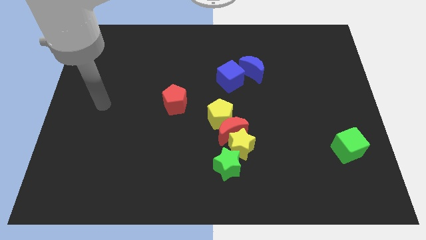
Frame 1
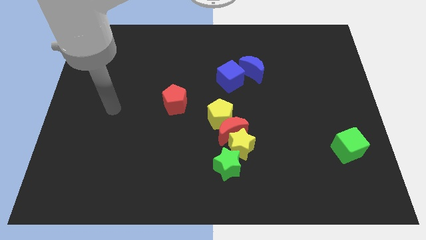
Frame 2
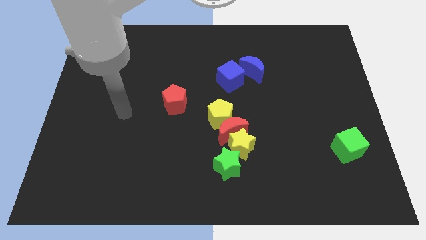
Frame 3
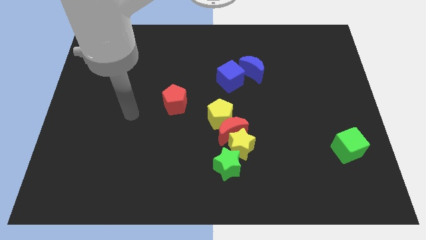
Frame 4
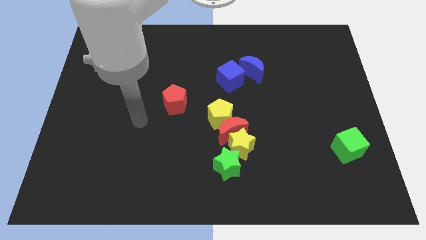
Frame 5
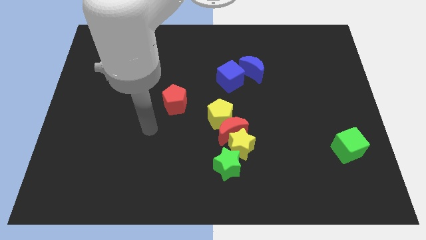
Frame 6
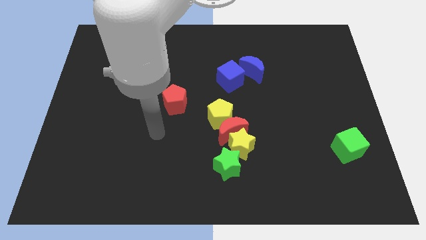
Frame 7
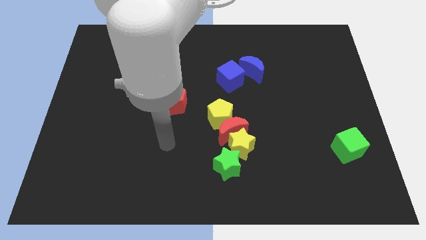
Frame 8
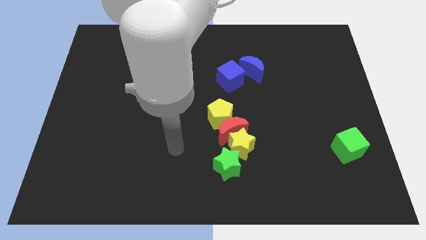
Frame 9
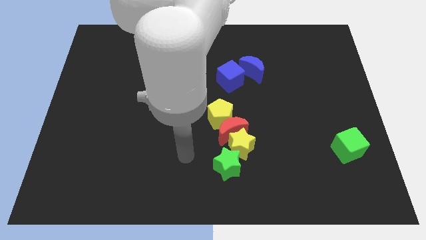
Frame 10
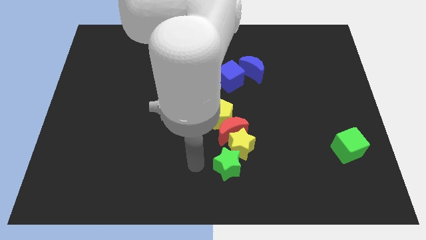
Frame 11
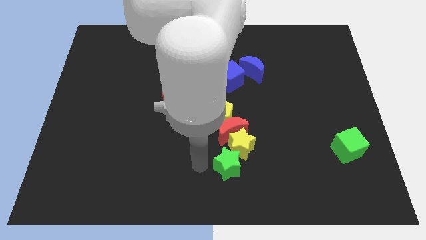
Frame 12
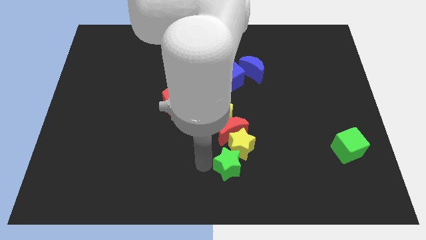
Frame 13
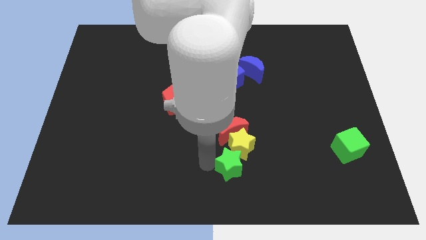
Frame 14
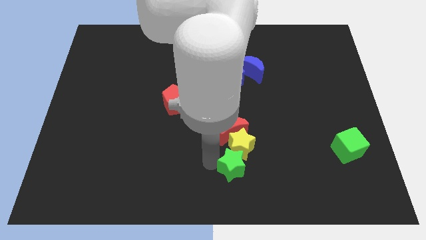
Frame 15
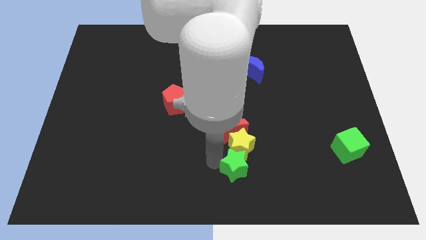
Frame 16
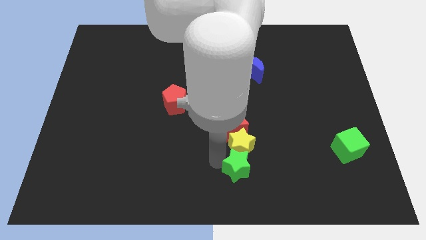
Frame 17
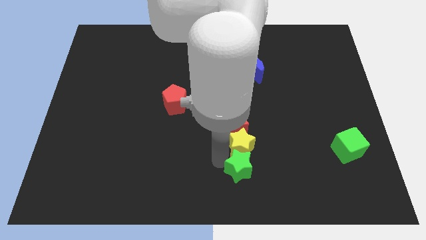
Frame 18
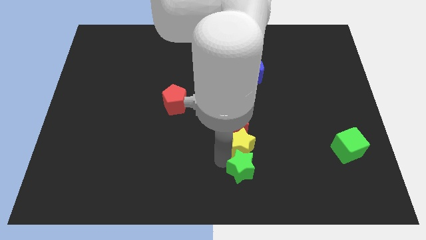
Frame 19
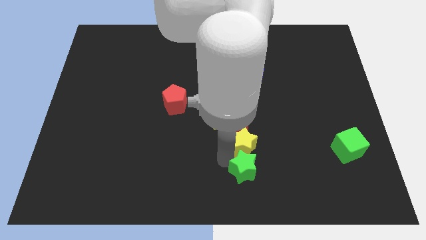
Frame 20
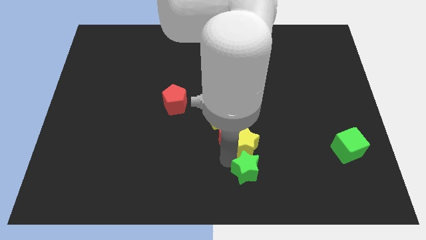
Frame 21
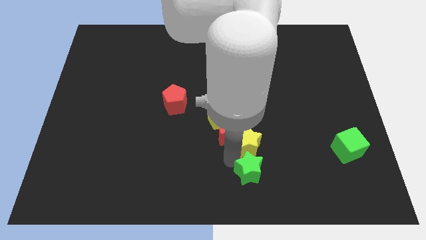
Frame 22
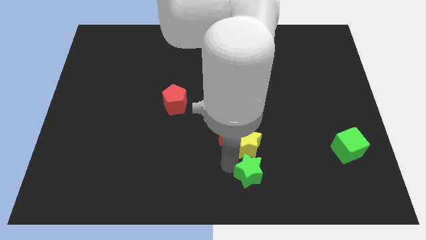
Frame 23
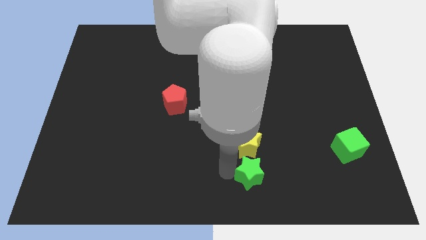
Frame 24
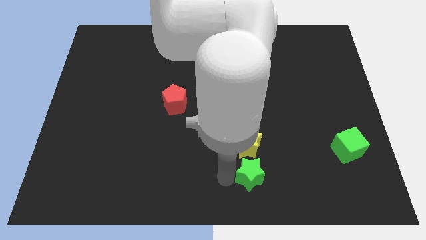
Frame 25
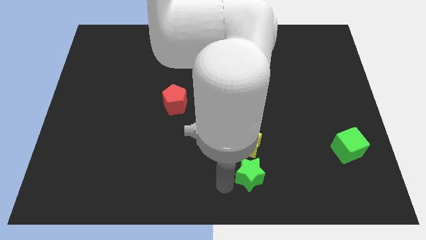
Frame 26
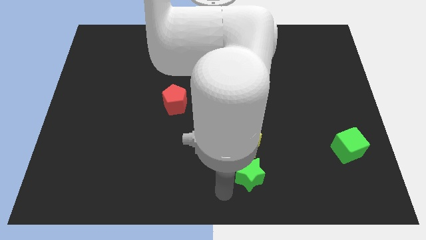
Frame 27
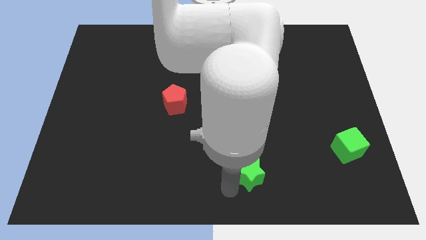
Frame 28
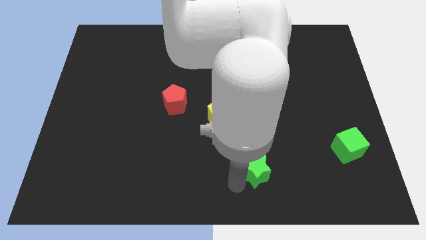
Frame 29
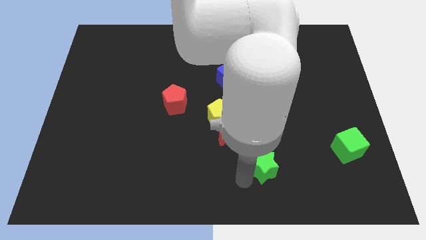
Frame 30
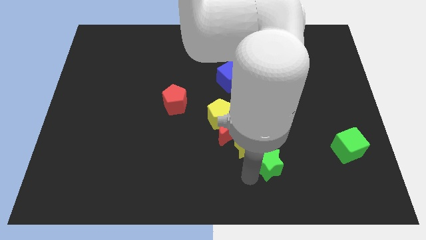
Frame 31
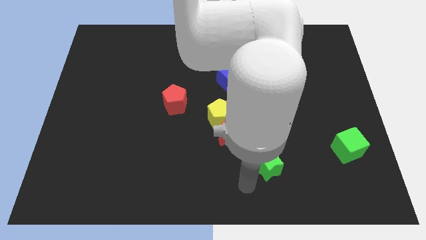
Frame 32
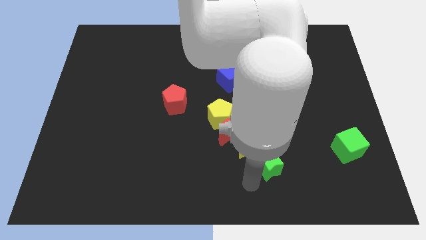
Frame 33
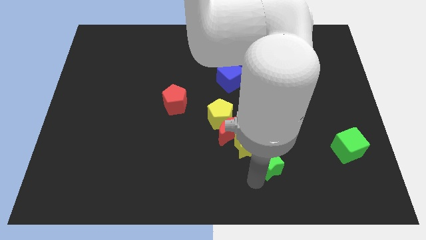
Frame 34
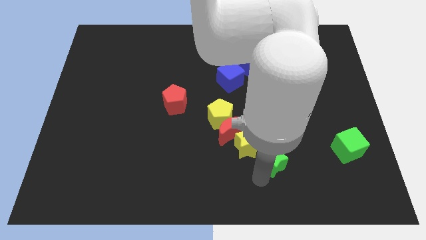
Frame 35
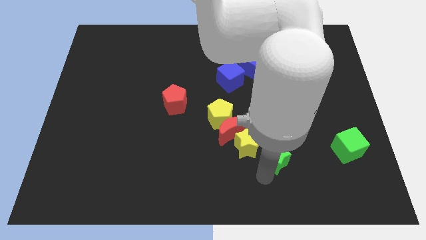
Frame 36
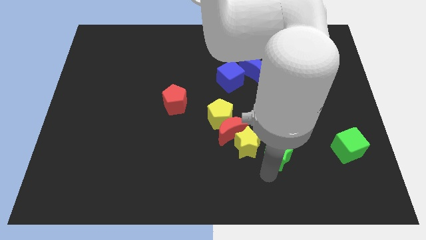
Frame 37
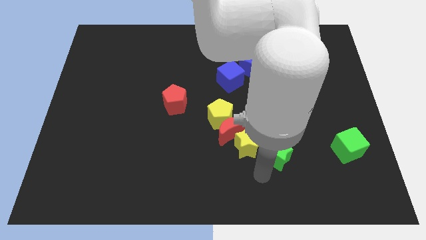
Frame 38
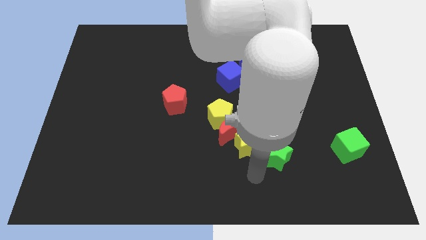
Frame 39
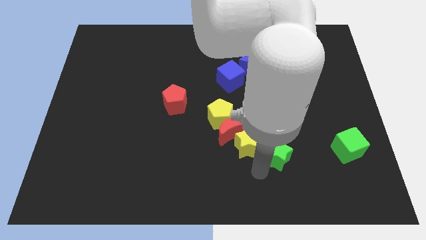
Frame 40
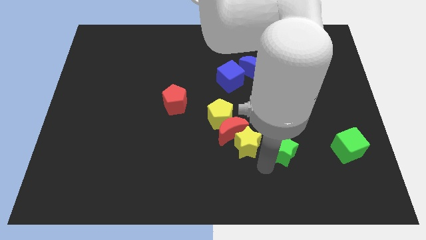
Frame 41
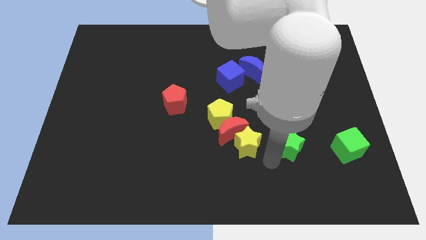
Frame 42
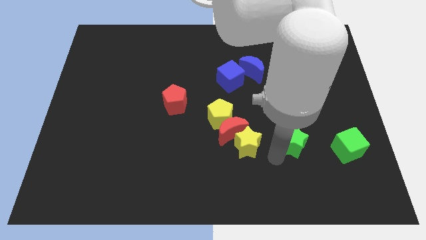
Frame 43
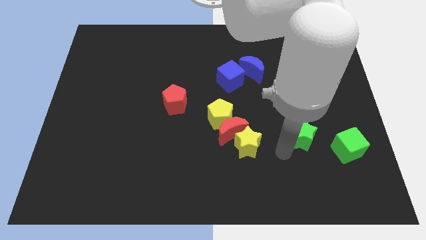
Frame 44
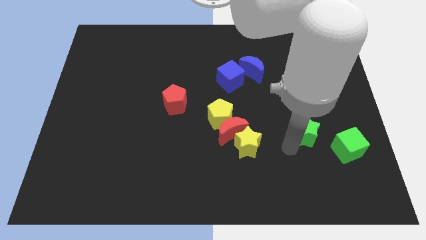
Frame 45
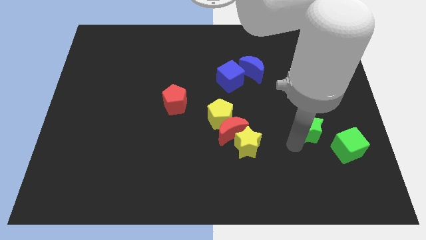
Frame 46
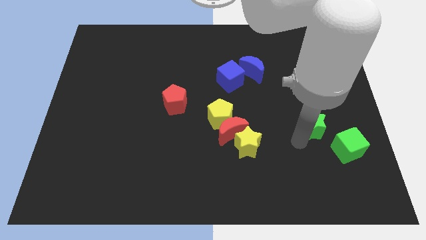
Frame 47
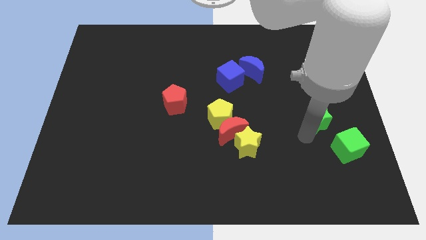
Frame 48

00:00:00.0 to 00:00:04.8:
push the green star upwards and then to the right

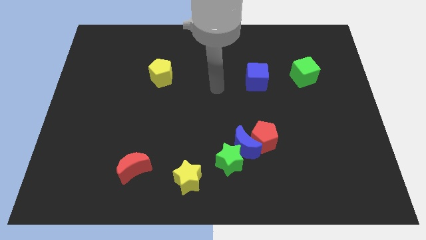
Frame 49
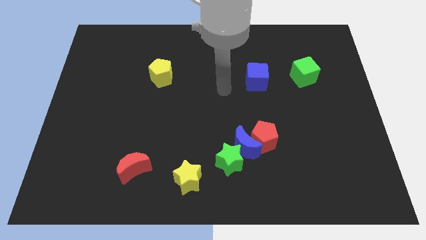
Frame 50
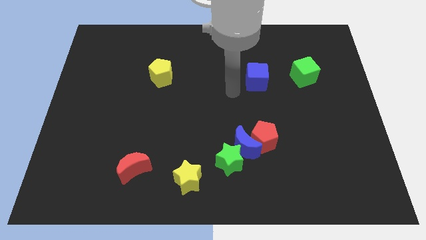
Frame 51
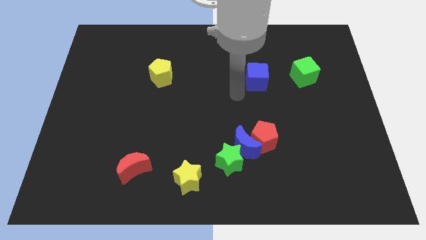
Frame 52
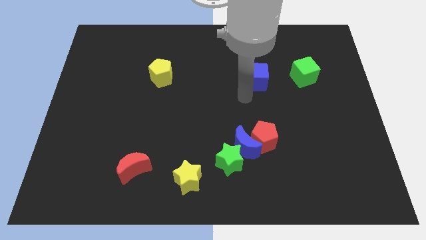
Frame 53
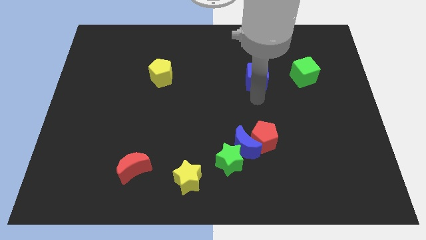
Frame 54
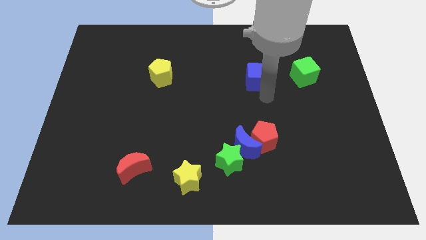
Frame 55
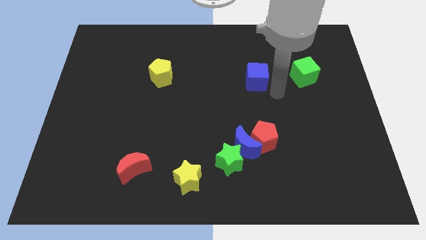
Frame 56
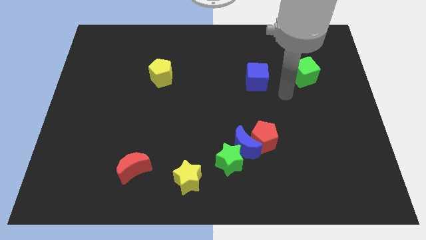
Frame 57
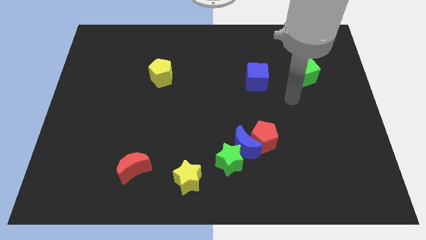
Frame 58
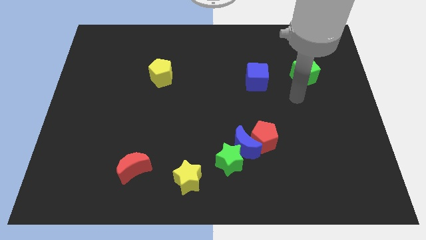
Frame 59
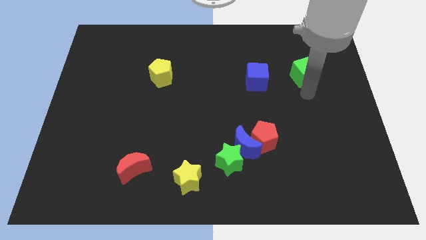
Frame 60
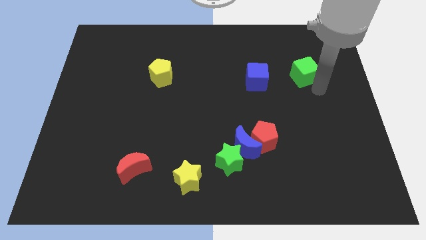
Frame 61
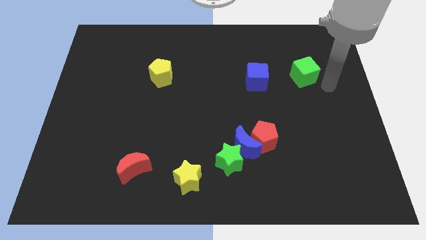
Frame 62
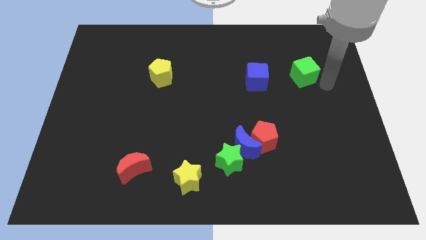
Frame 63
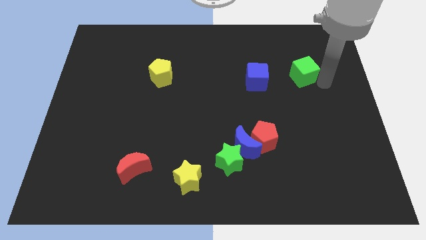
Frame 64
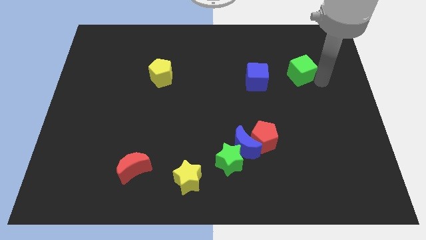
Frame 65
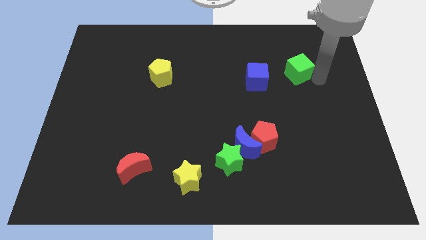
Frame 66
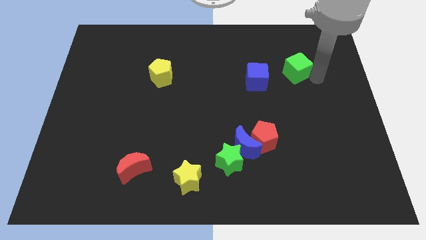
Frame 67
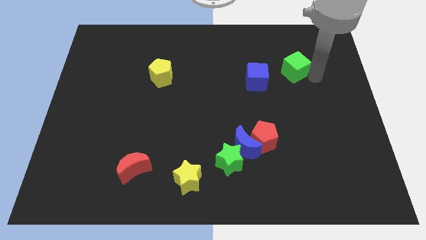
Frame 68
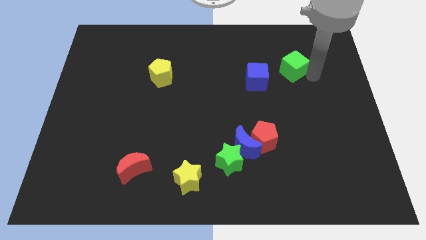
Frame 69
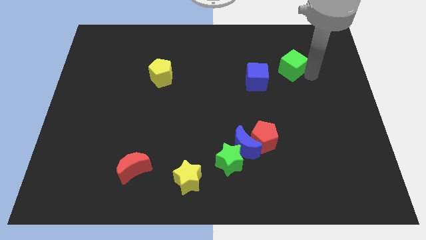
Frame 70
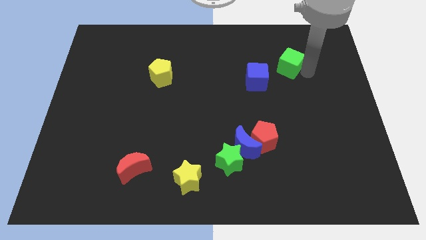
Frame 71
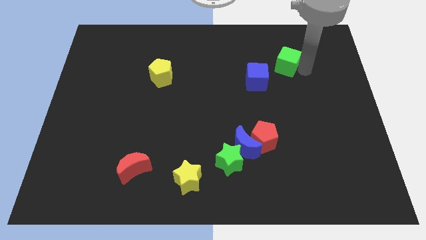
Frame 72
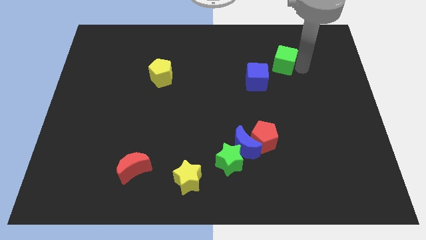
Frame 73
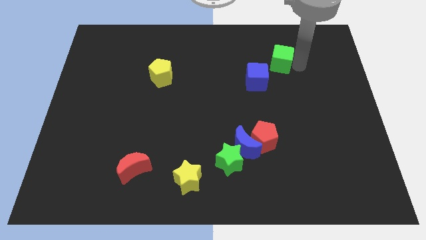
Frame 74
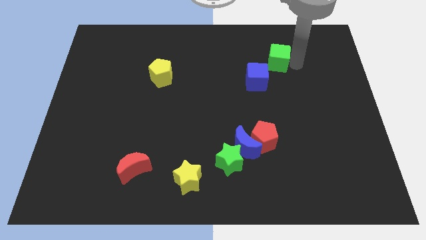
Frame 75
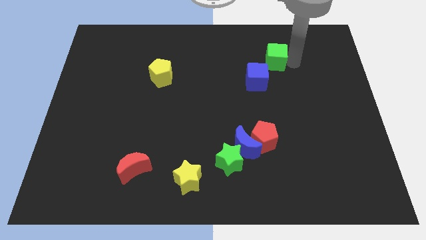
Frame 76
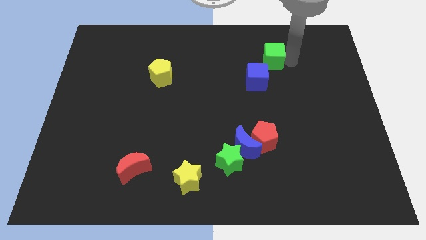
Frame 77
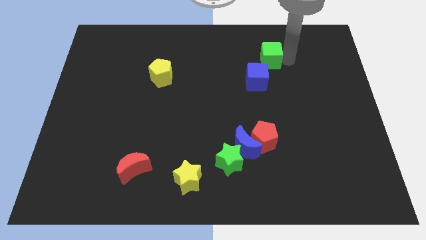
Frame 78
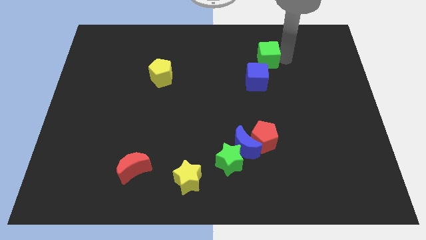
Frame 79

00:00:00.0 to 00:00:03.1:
push the green cube left a bit

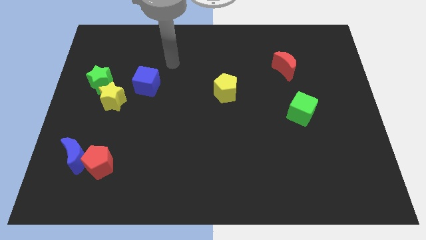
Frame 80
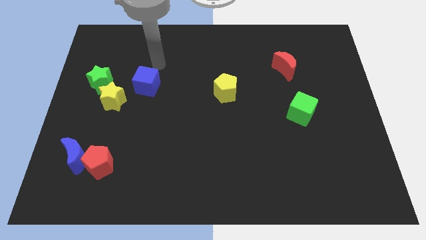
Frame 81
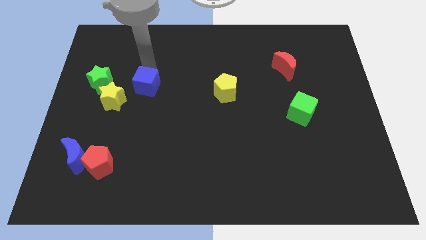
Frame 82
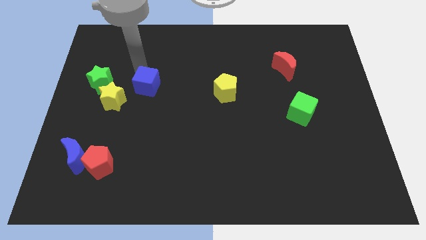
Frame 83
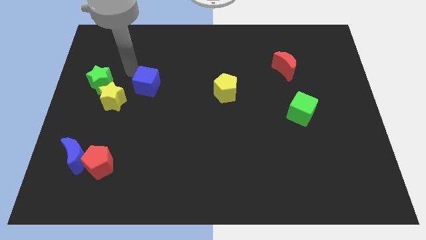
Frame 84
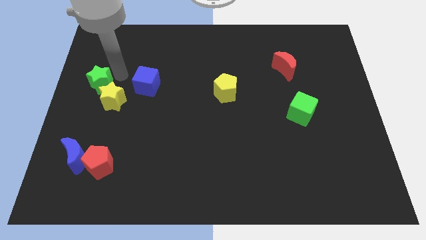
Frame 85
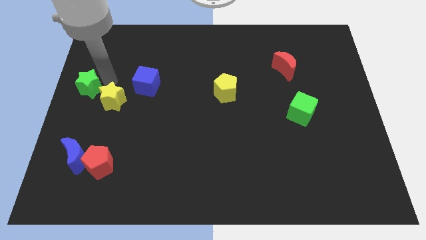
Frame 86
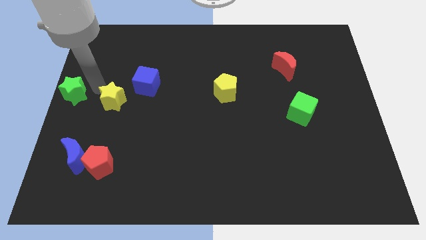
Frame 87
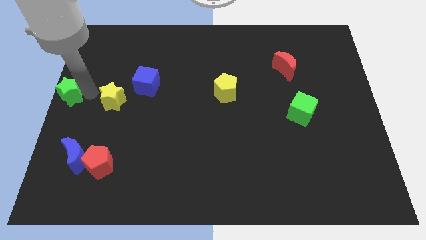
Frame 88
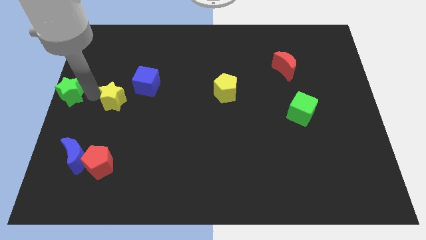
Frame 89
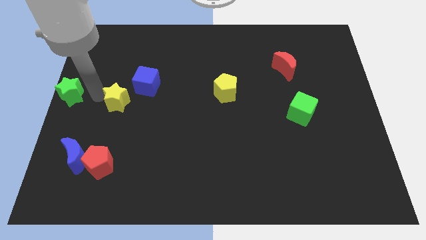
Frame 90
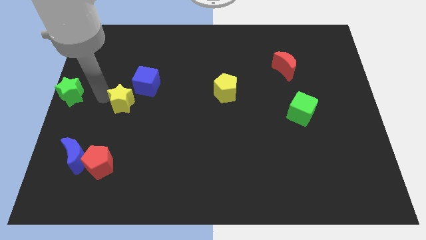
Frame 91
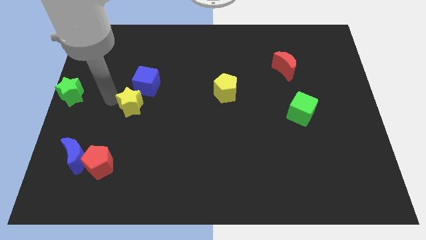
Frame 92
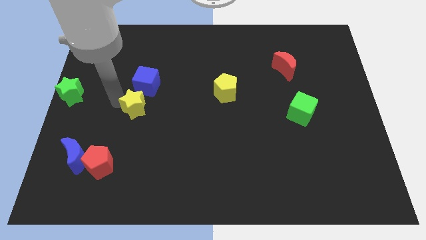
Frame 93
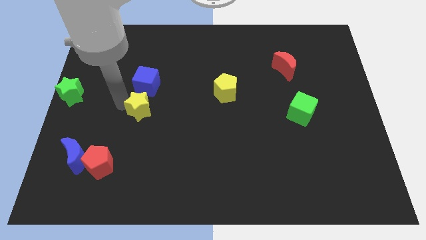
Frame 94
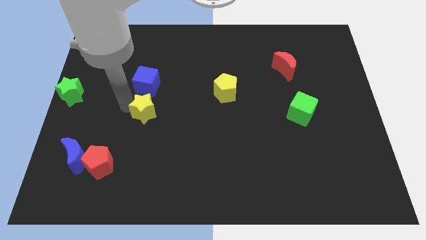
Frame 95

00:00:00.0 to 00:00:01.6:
push the yellow star right a little
